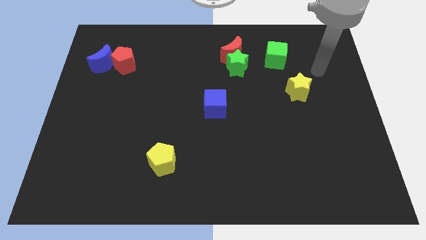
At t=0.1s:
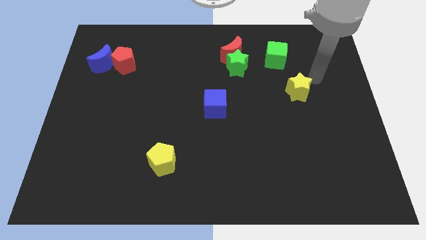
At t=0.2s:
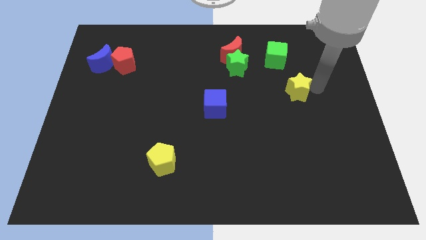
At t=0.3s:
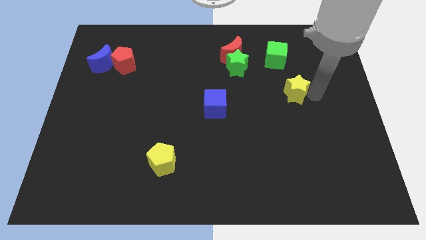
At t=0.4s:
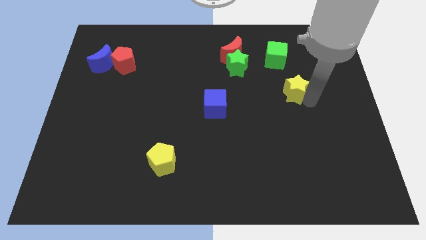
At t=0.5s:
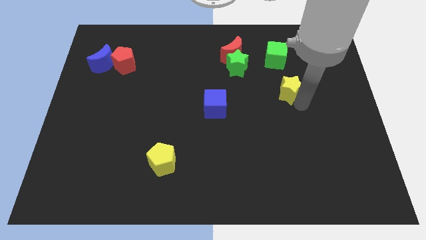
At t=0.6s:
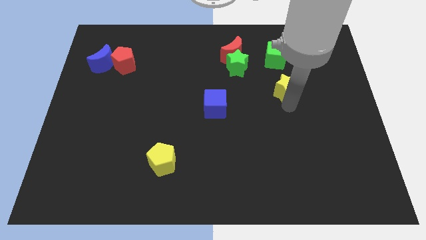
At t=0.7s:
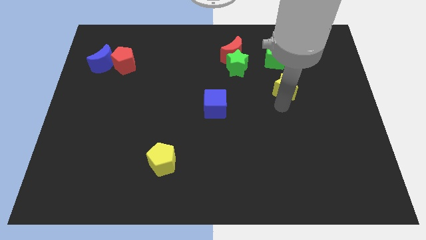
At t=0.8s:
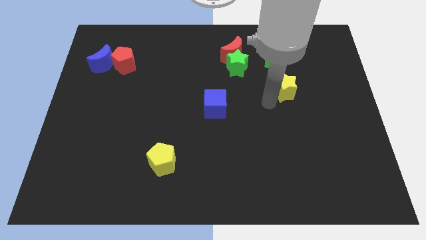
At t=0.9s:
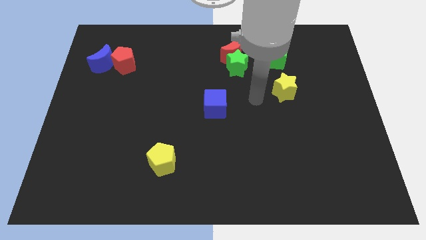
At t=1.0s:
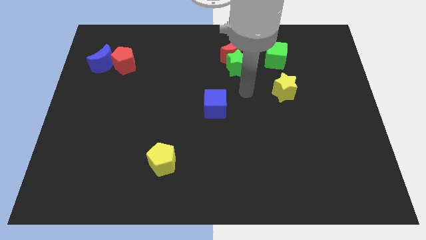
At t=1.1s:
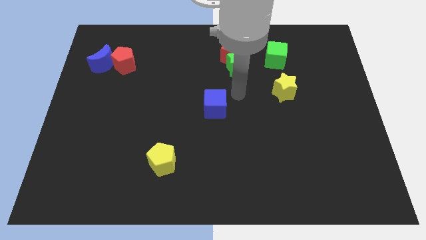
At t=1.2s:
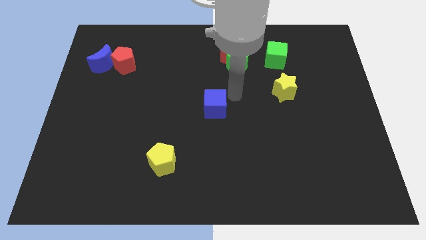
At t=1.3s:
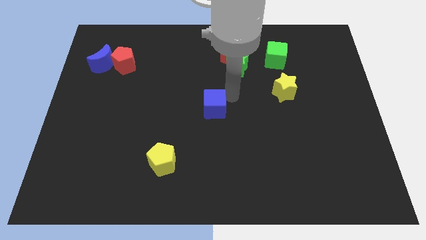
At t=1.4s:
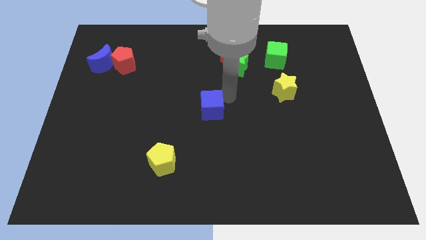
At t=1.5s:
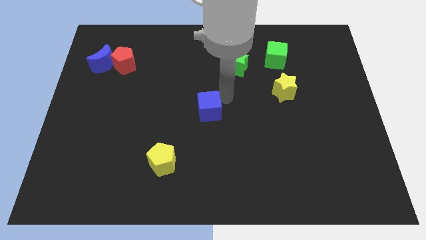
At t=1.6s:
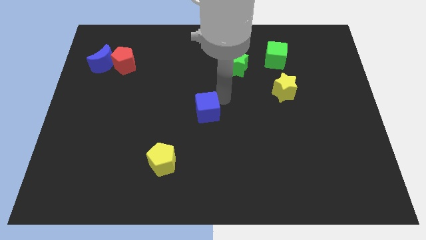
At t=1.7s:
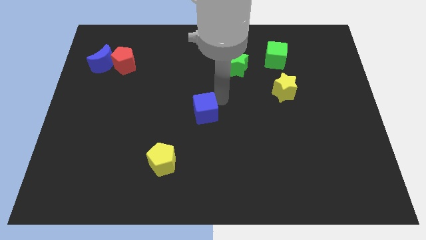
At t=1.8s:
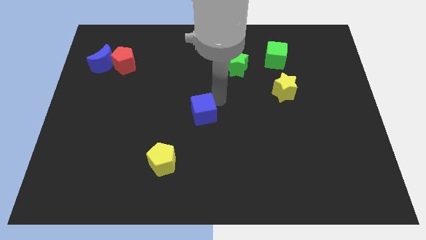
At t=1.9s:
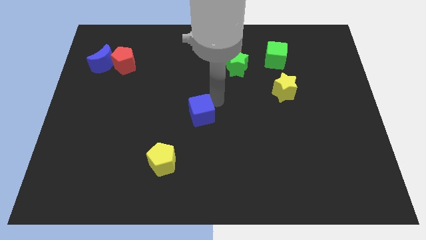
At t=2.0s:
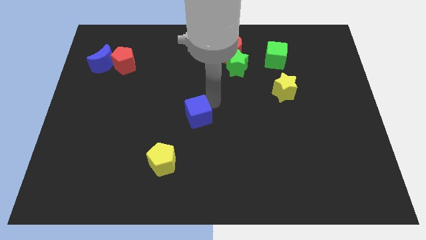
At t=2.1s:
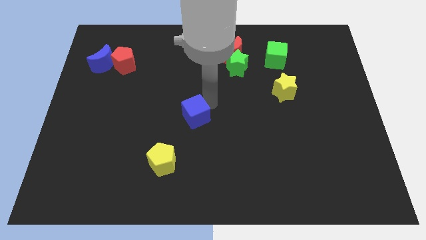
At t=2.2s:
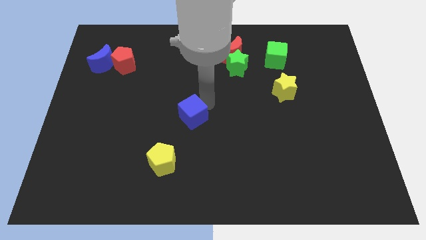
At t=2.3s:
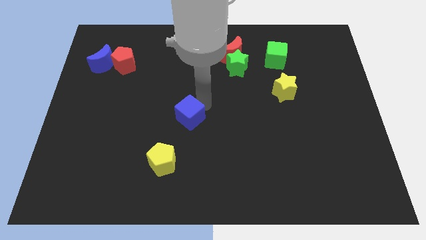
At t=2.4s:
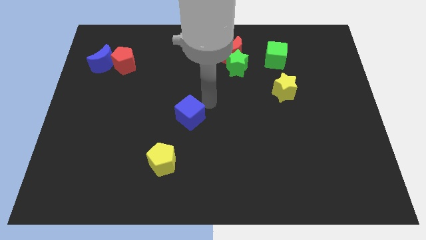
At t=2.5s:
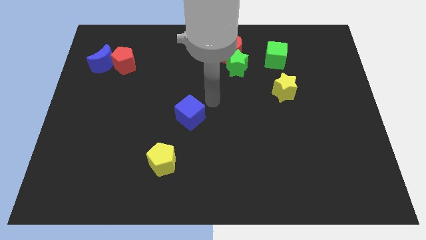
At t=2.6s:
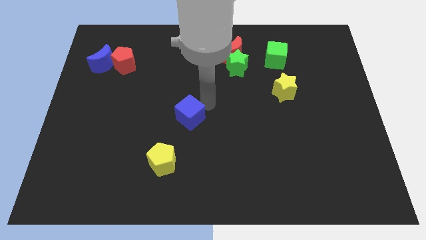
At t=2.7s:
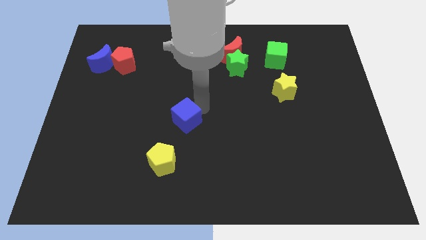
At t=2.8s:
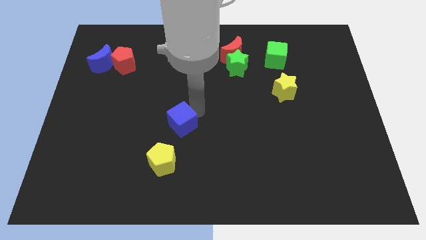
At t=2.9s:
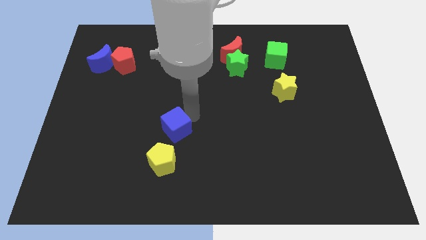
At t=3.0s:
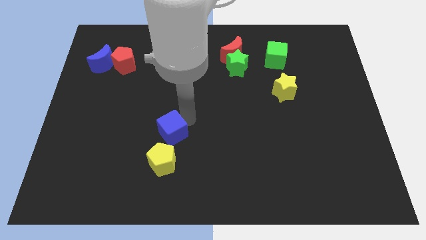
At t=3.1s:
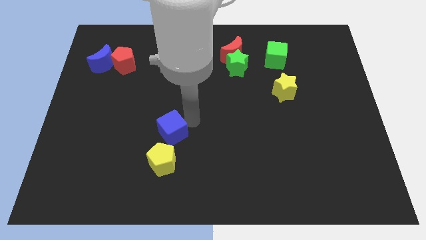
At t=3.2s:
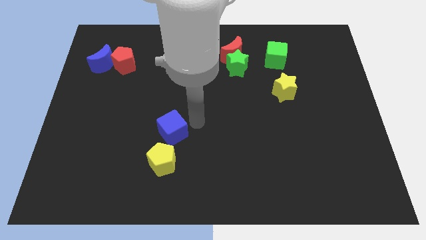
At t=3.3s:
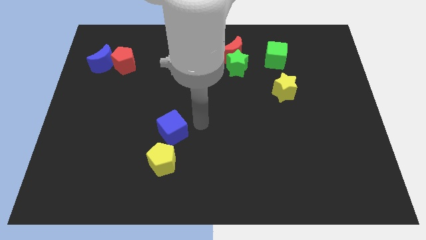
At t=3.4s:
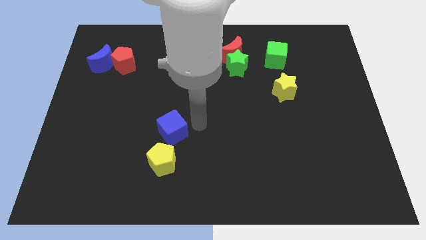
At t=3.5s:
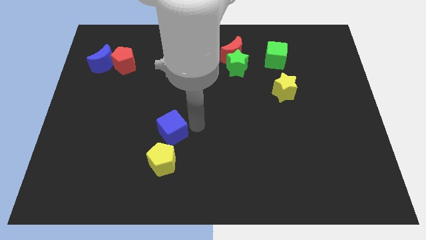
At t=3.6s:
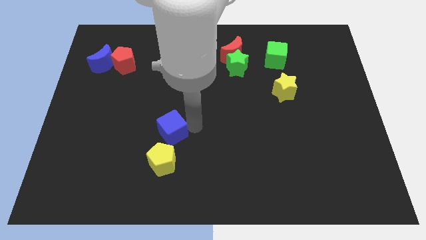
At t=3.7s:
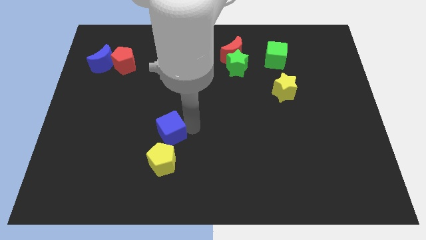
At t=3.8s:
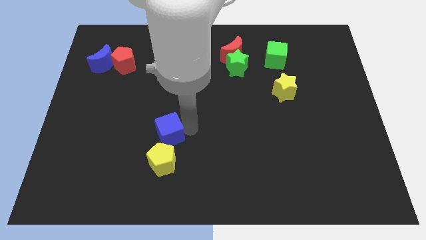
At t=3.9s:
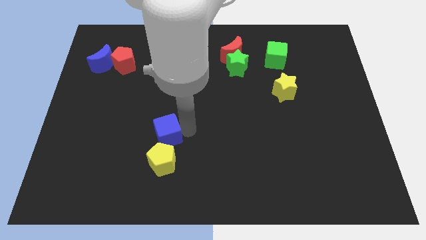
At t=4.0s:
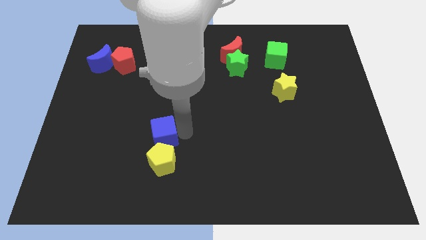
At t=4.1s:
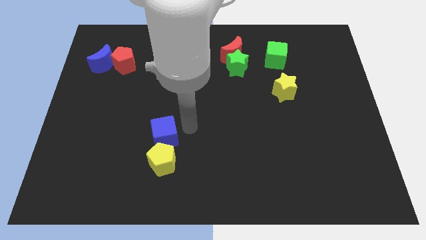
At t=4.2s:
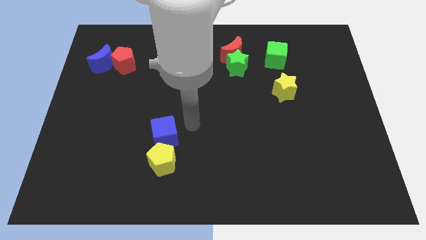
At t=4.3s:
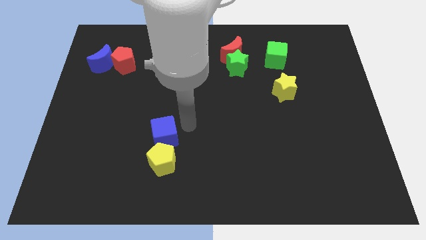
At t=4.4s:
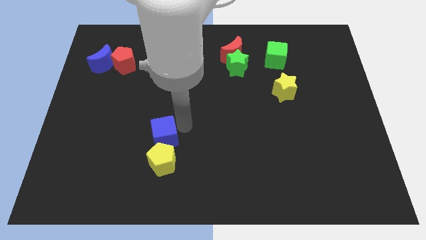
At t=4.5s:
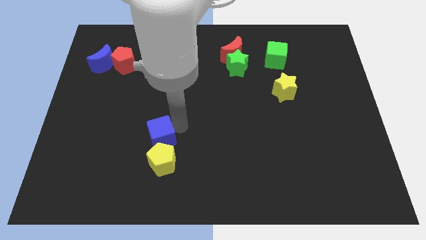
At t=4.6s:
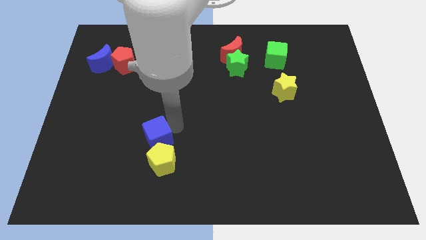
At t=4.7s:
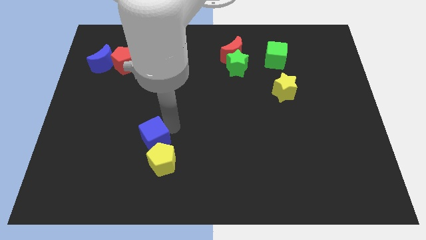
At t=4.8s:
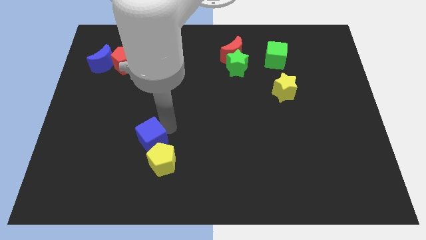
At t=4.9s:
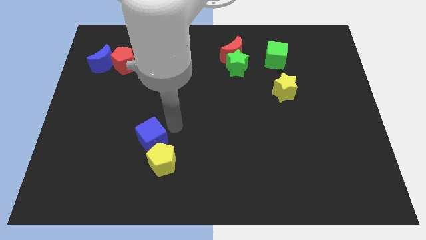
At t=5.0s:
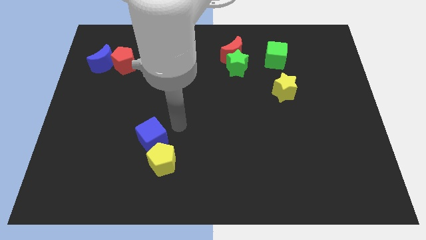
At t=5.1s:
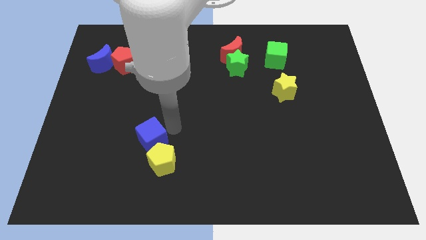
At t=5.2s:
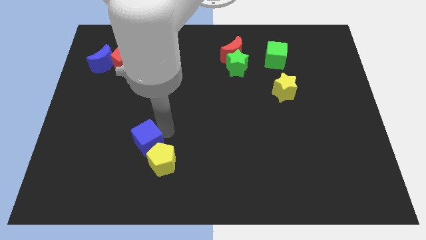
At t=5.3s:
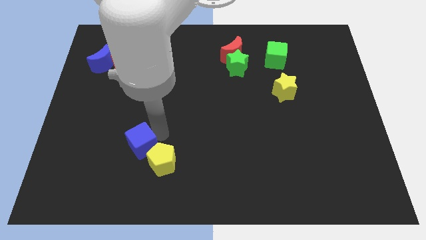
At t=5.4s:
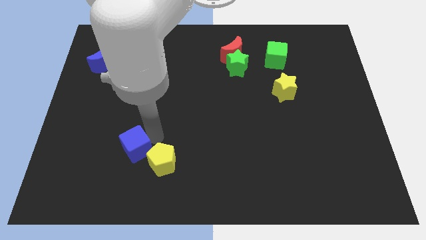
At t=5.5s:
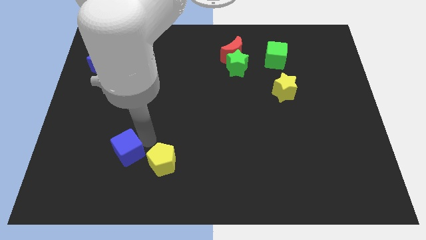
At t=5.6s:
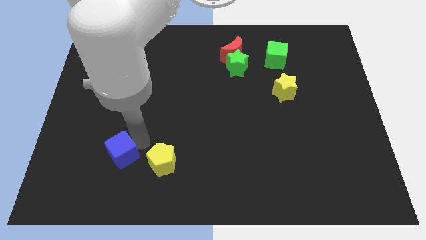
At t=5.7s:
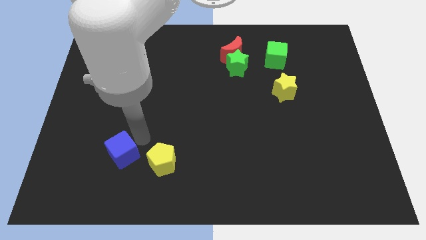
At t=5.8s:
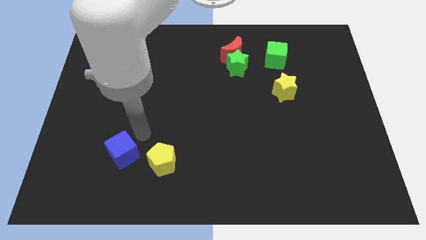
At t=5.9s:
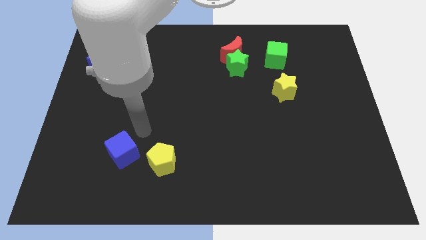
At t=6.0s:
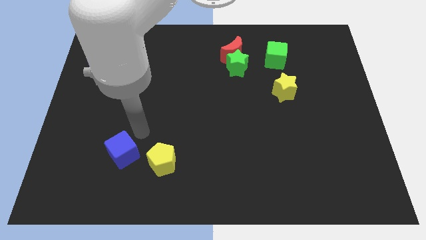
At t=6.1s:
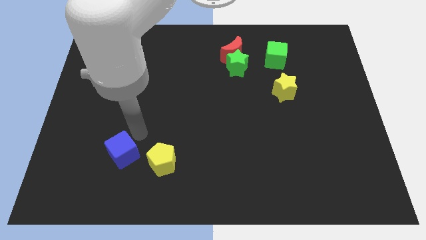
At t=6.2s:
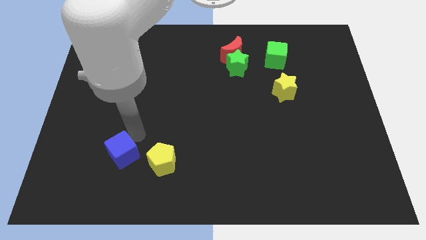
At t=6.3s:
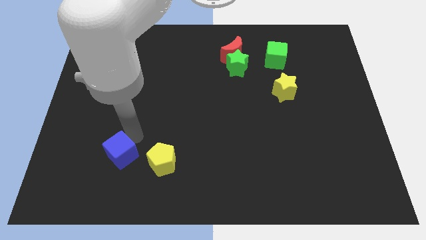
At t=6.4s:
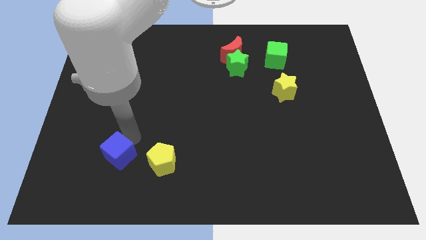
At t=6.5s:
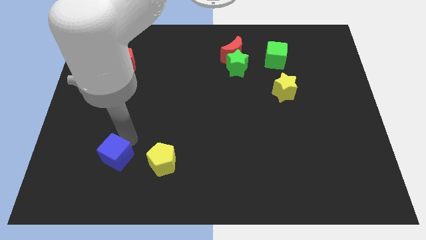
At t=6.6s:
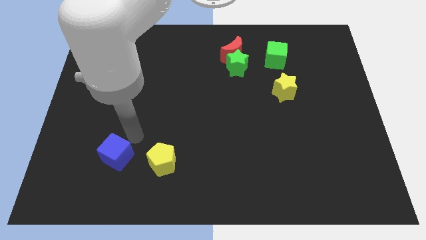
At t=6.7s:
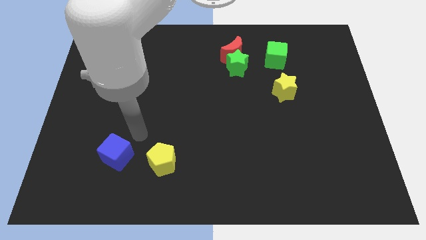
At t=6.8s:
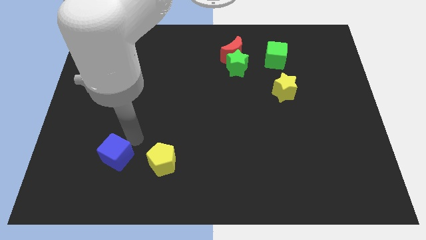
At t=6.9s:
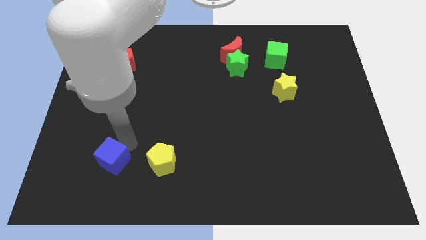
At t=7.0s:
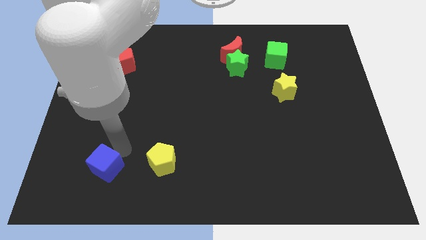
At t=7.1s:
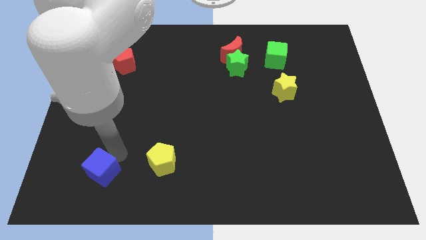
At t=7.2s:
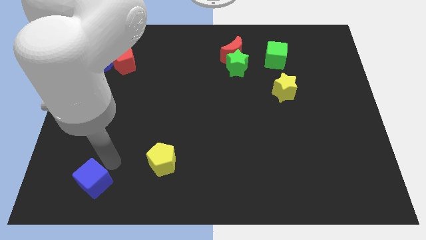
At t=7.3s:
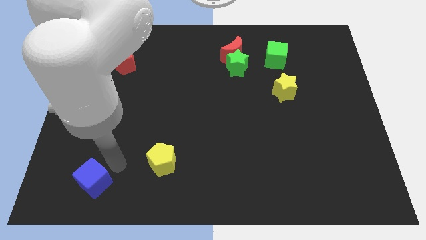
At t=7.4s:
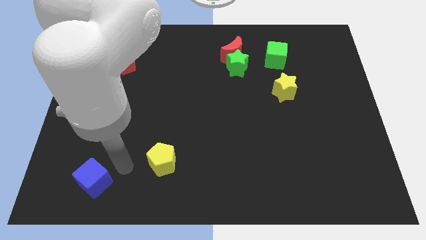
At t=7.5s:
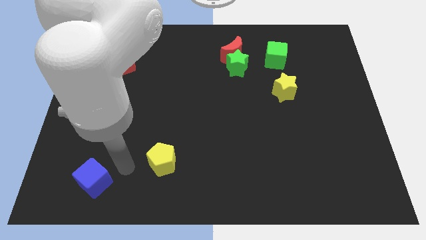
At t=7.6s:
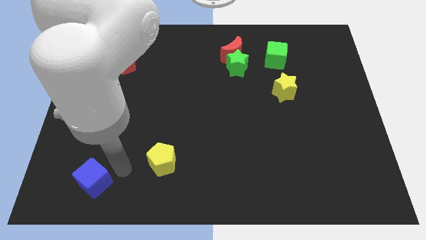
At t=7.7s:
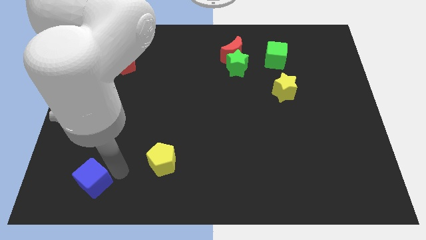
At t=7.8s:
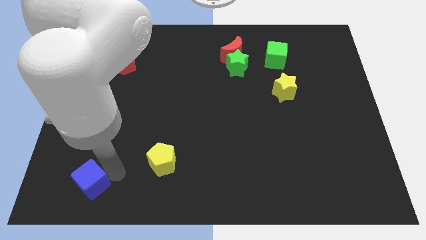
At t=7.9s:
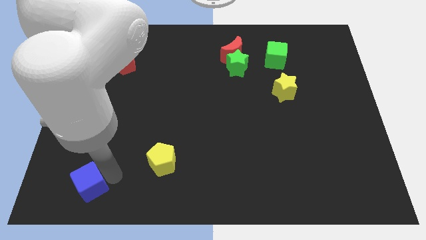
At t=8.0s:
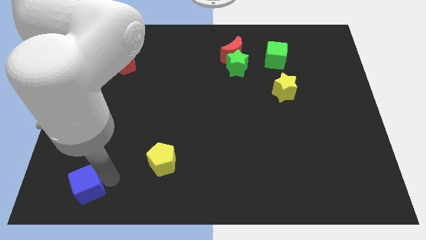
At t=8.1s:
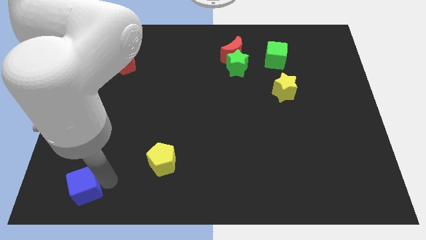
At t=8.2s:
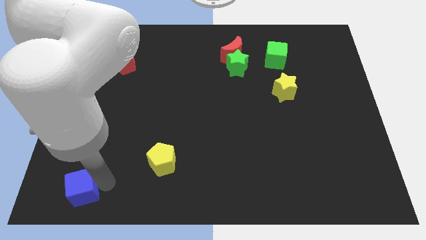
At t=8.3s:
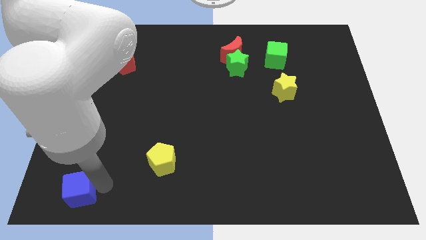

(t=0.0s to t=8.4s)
move the blue cube to the bottom left corner
